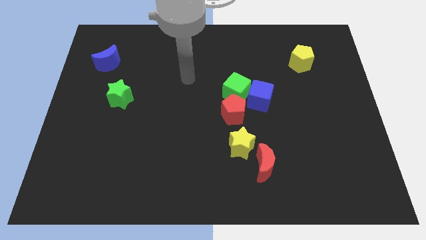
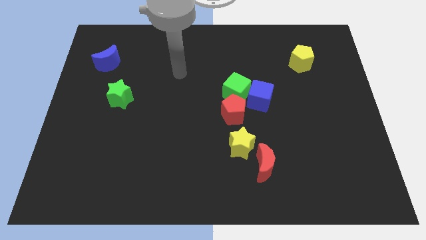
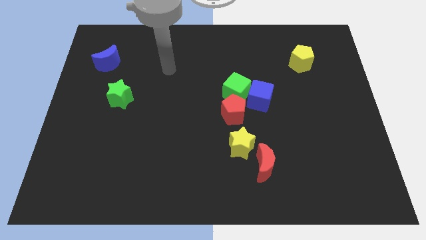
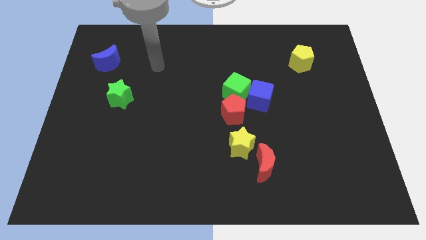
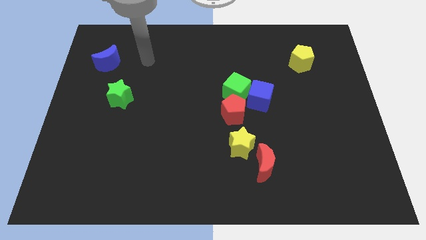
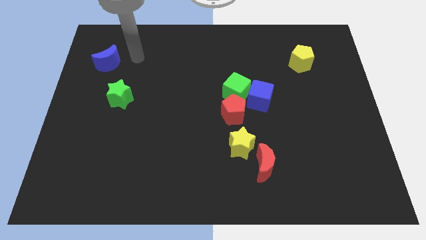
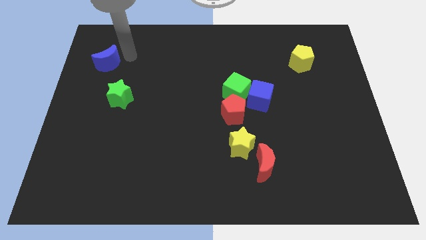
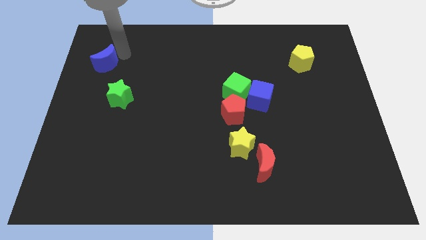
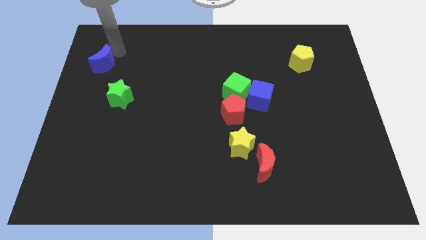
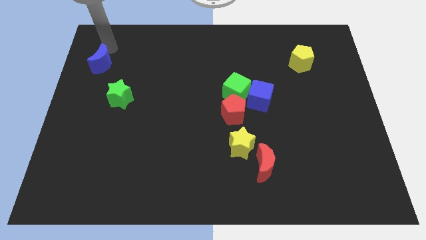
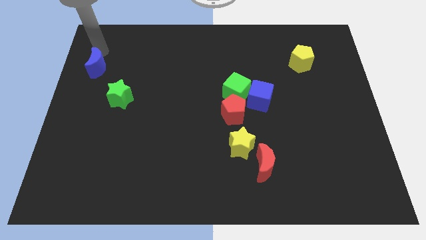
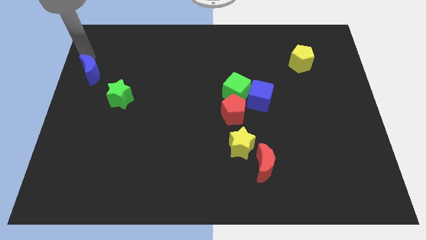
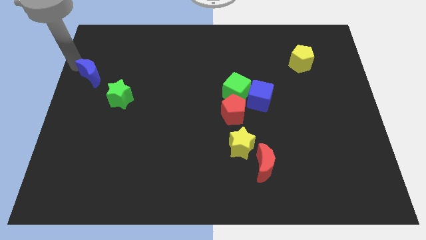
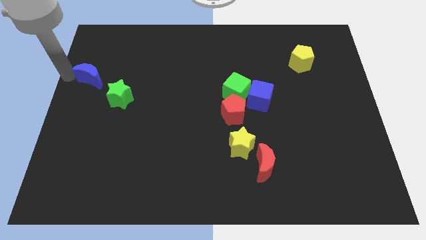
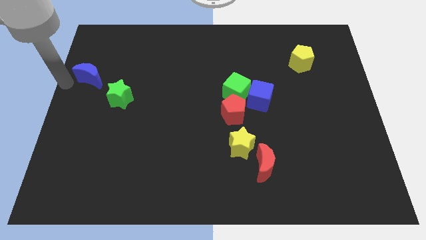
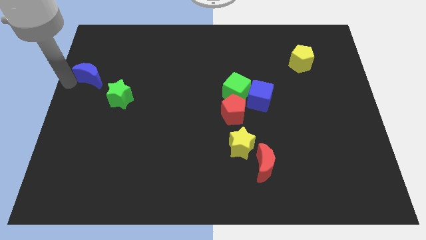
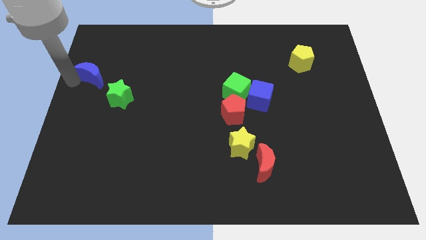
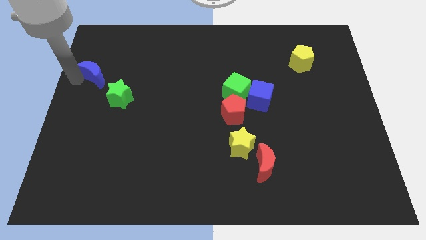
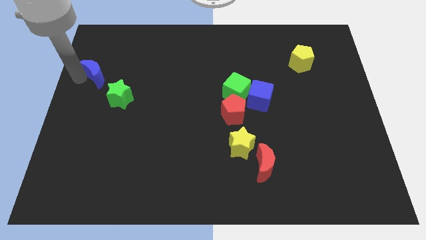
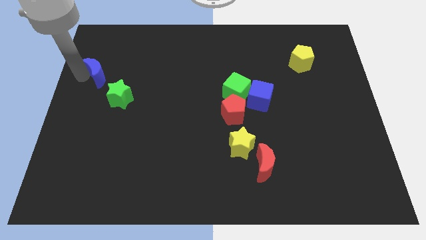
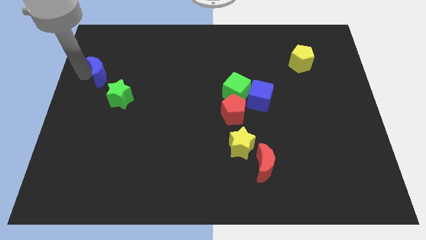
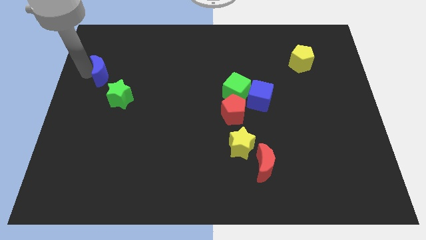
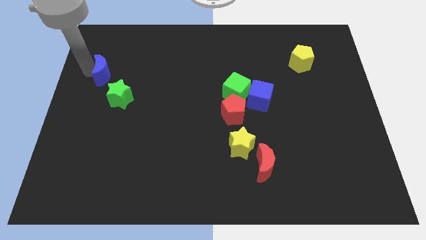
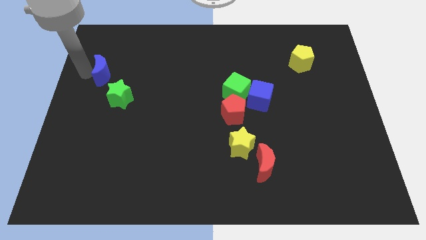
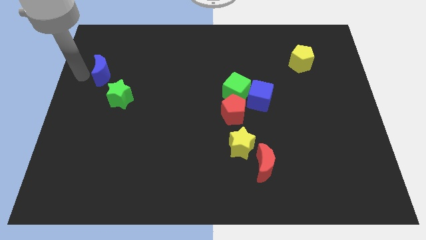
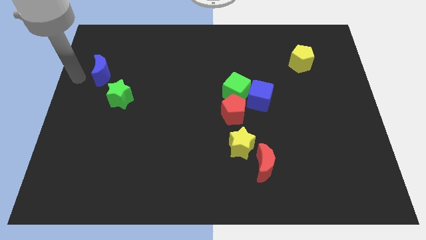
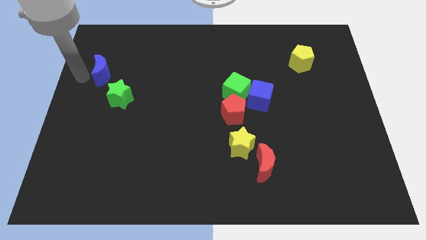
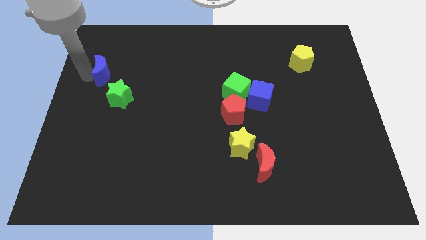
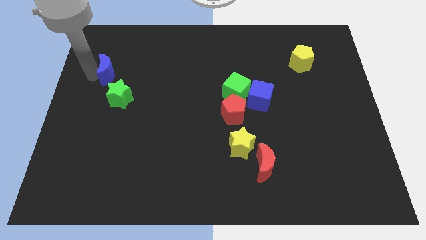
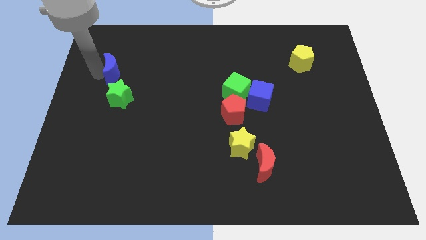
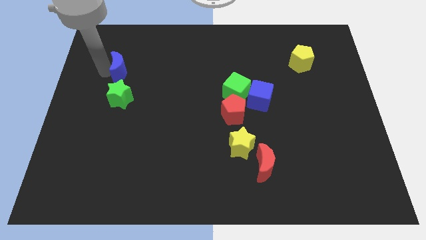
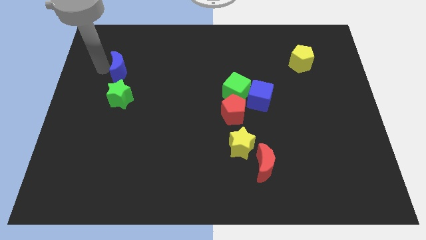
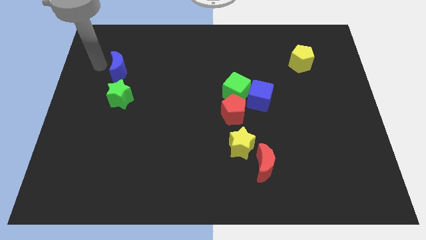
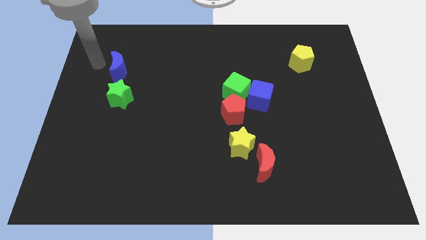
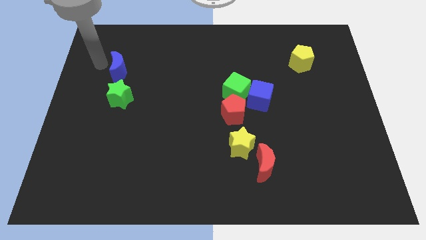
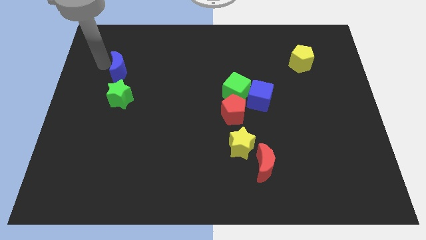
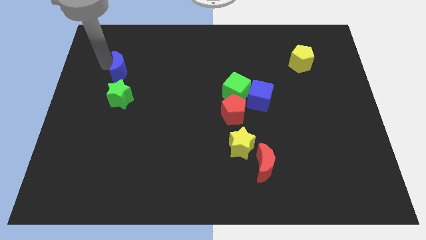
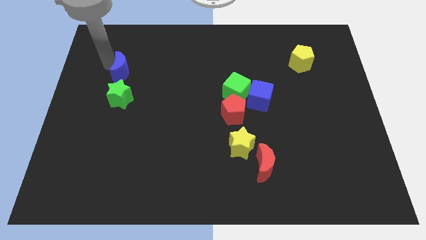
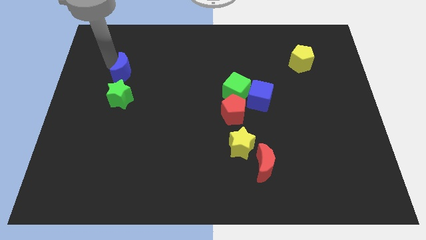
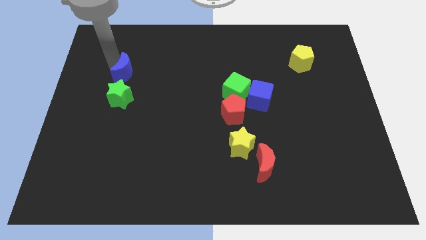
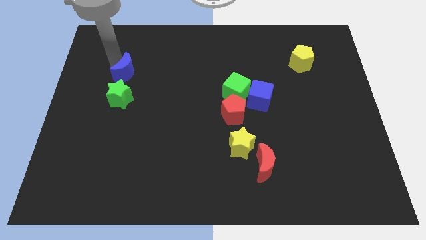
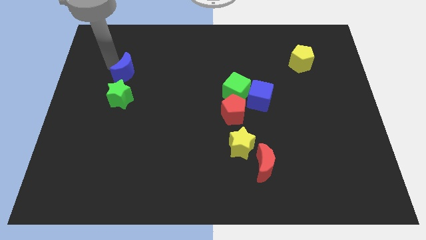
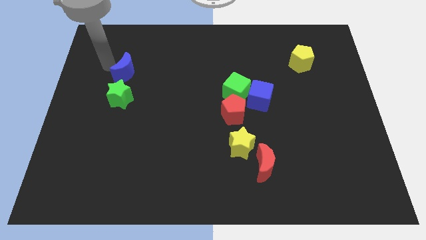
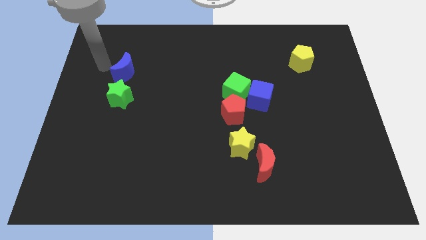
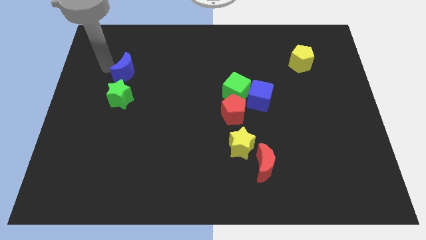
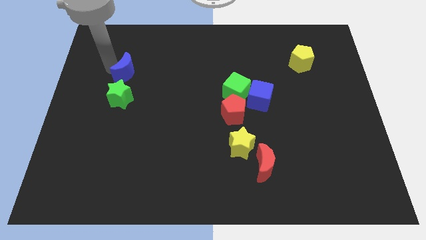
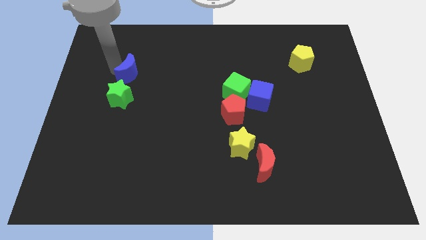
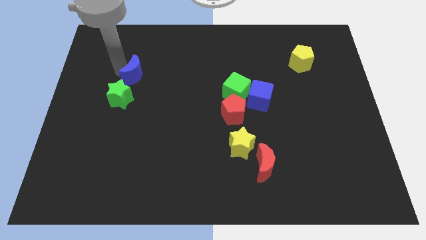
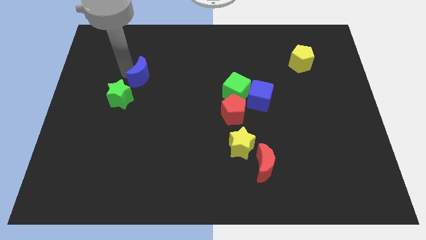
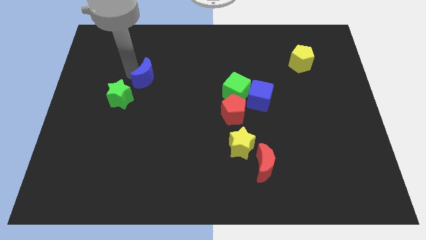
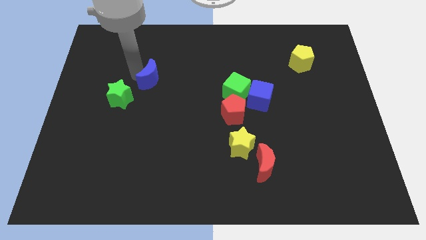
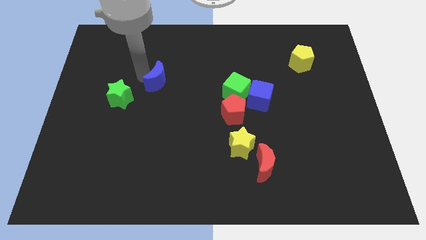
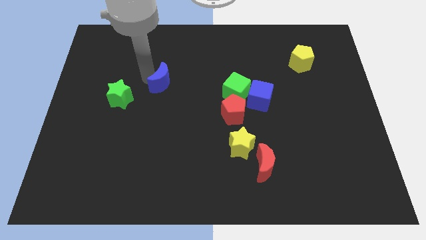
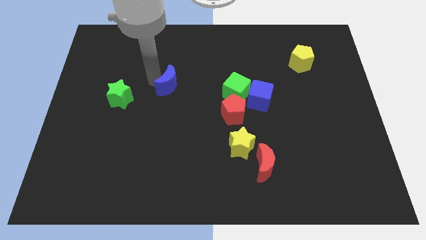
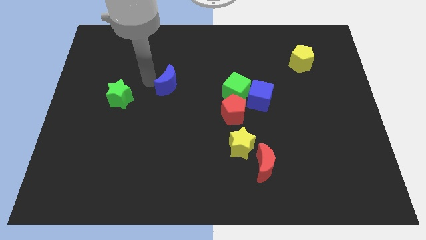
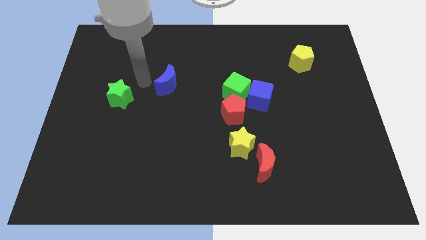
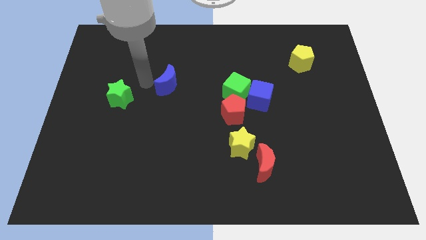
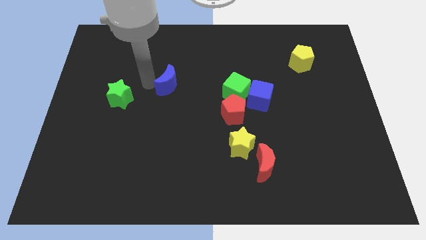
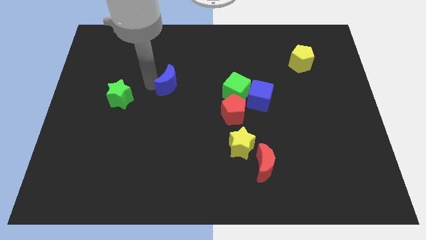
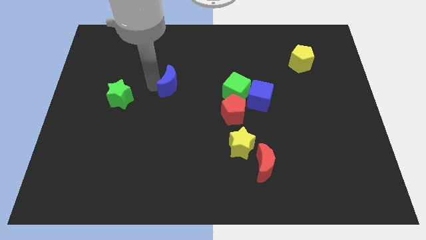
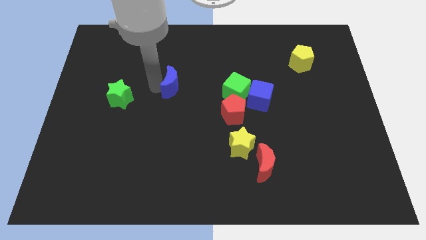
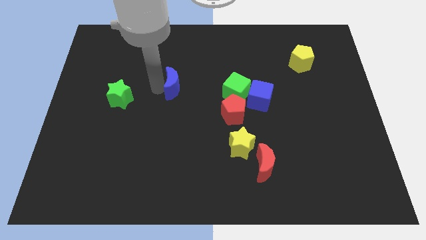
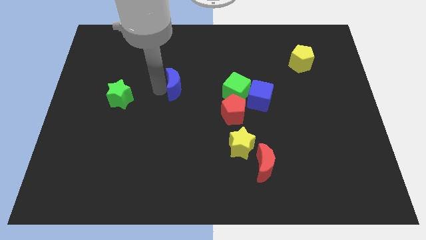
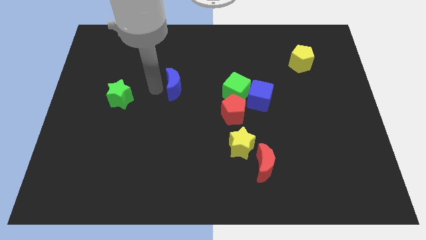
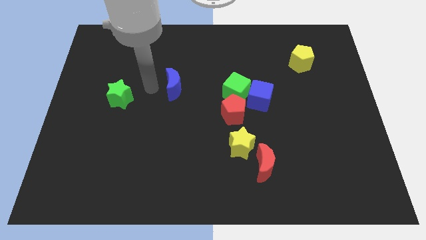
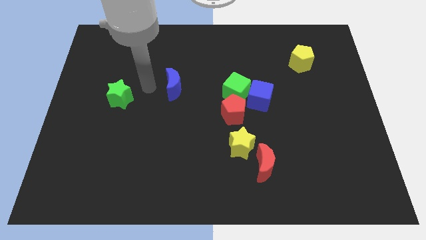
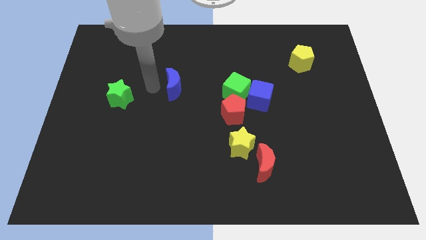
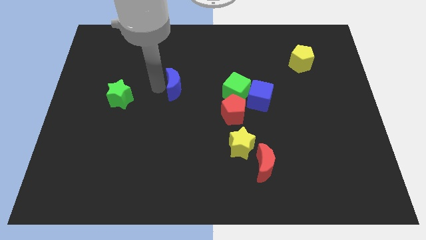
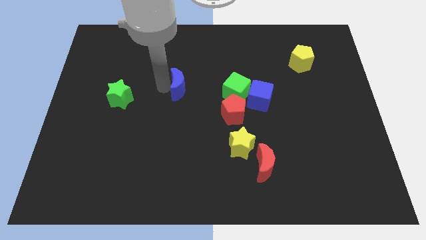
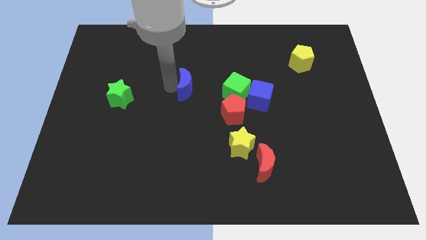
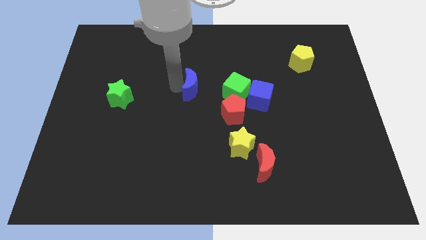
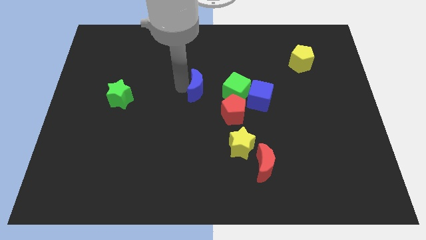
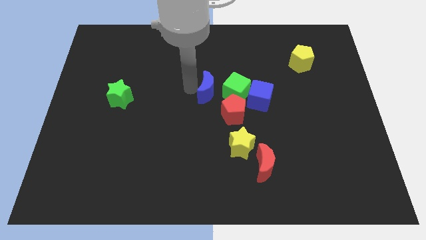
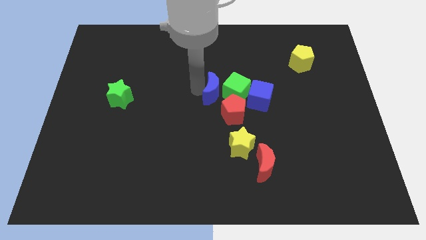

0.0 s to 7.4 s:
push the blue moon to the green cube
